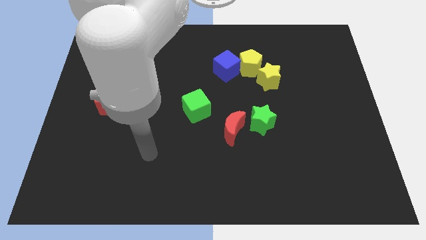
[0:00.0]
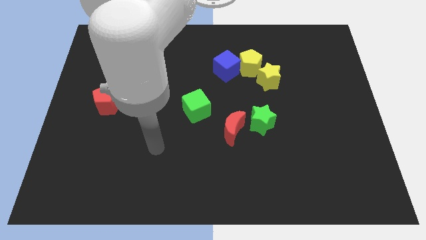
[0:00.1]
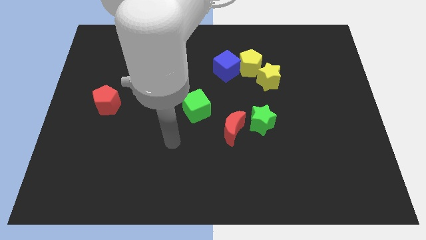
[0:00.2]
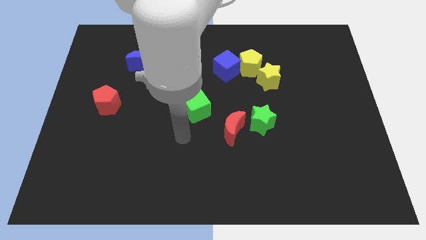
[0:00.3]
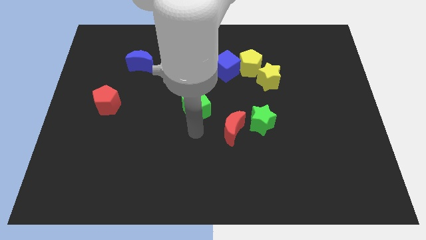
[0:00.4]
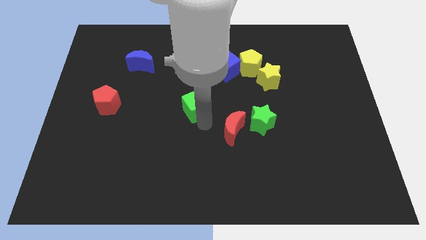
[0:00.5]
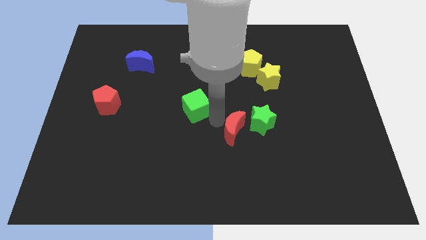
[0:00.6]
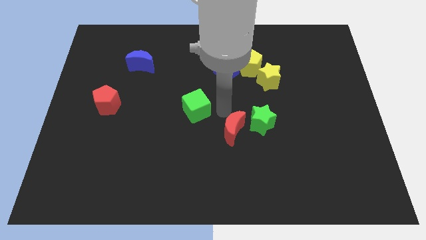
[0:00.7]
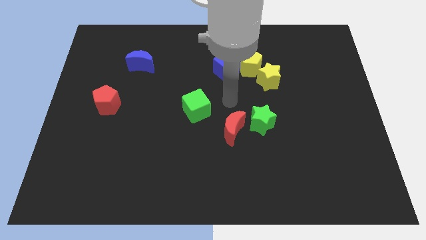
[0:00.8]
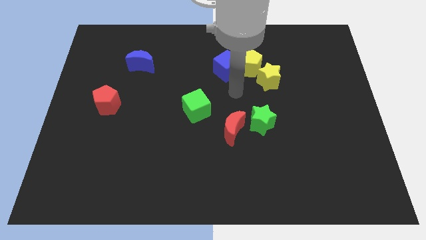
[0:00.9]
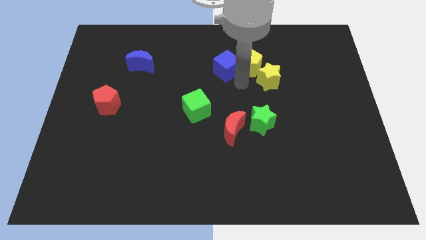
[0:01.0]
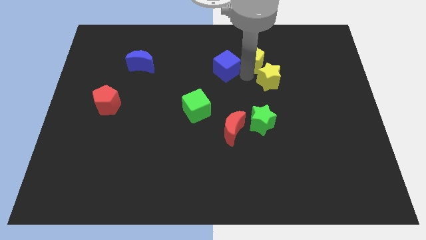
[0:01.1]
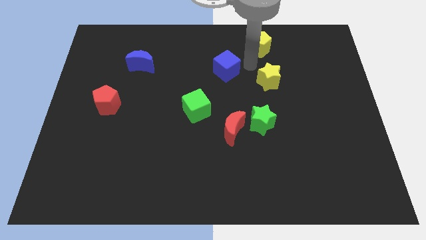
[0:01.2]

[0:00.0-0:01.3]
move the blue cube away from the yellow pentagon

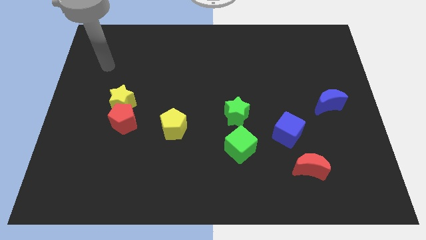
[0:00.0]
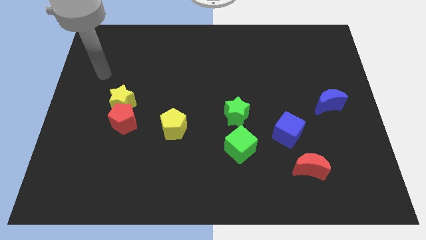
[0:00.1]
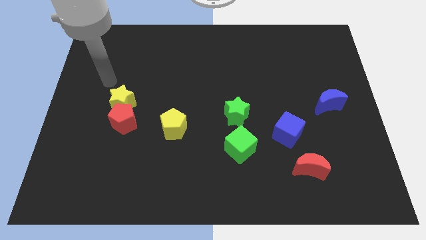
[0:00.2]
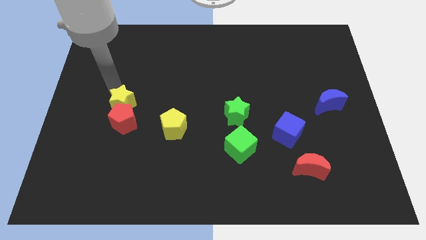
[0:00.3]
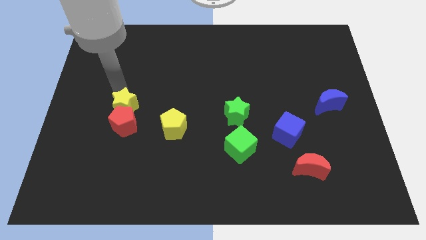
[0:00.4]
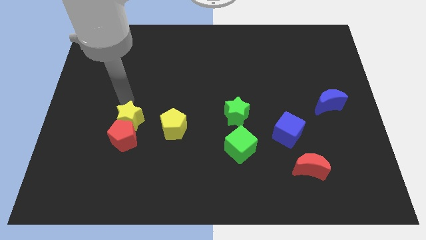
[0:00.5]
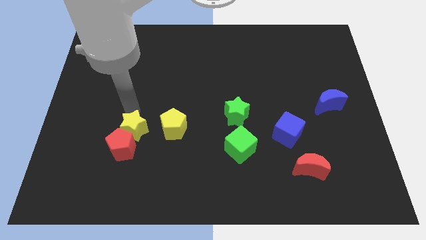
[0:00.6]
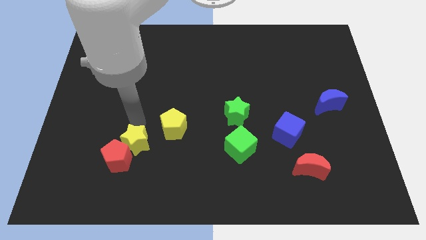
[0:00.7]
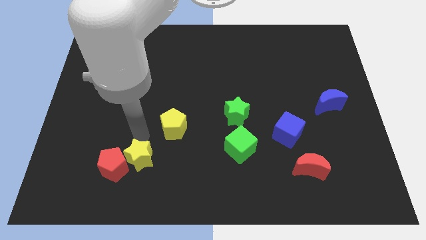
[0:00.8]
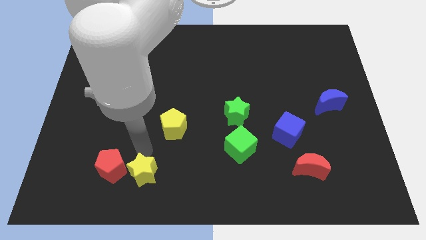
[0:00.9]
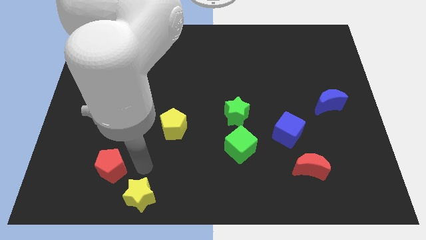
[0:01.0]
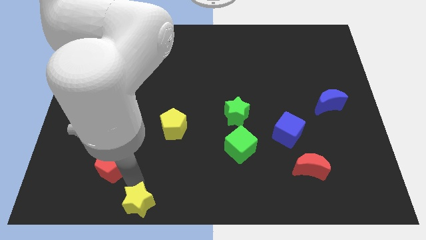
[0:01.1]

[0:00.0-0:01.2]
separate the red pentagon from the yellow star

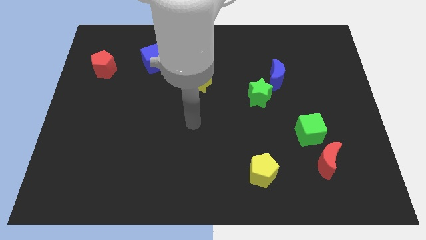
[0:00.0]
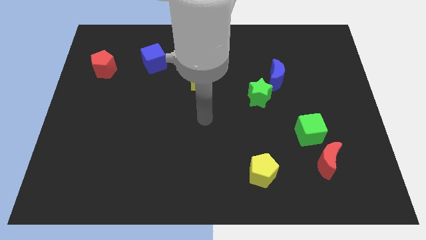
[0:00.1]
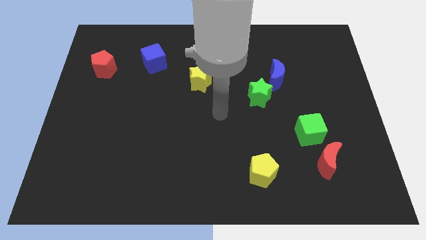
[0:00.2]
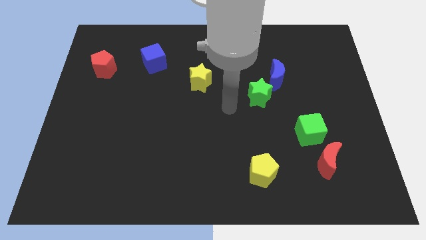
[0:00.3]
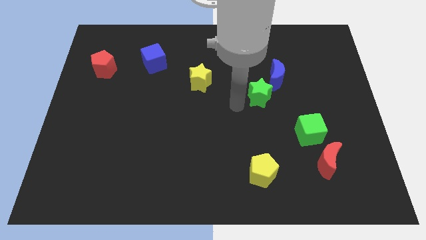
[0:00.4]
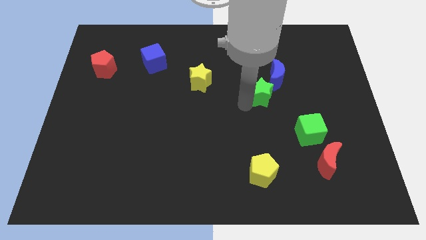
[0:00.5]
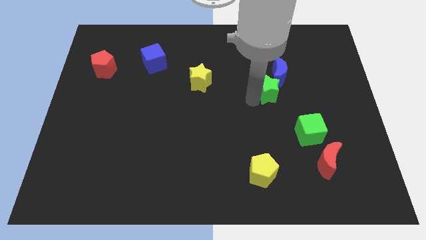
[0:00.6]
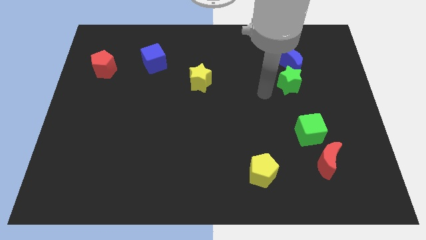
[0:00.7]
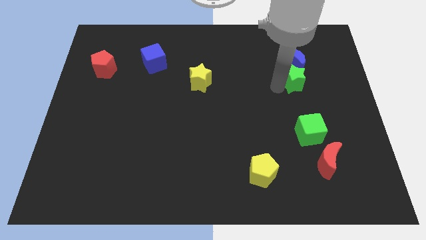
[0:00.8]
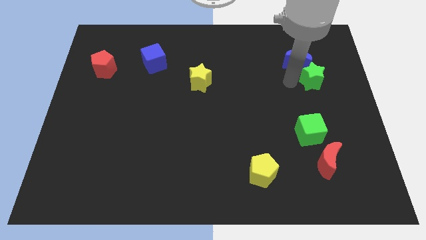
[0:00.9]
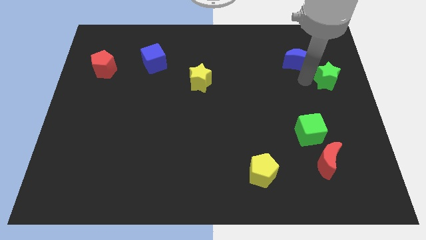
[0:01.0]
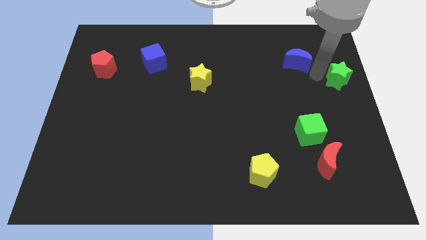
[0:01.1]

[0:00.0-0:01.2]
separate the blue moon from the green star

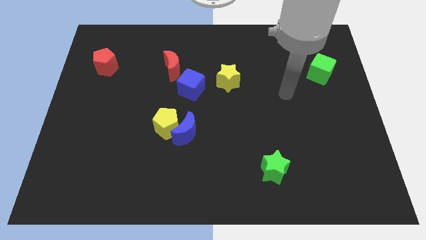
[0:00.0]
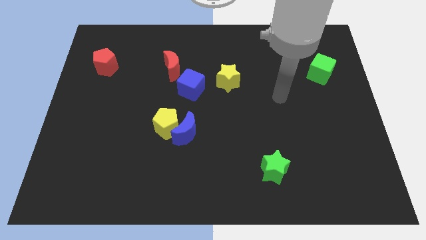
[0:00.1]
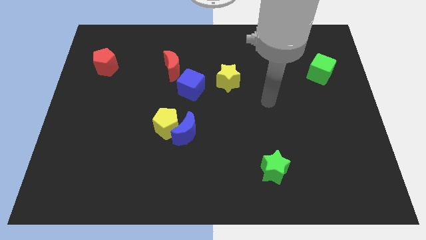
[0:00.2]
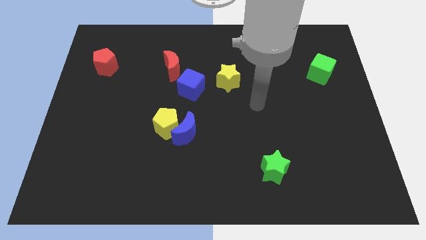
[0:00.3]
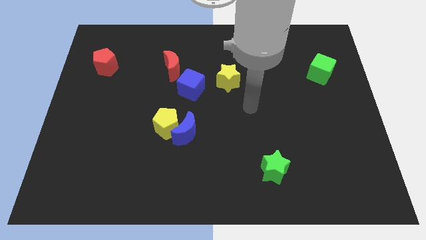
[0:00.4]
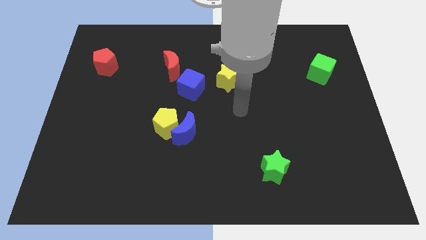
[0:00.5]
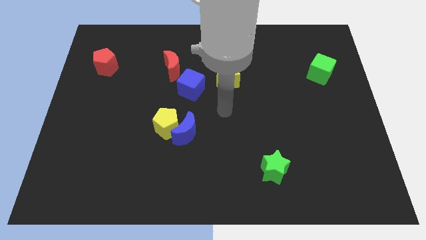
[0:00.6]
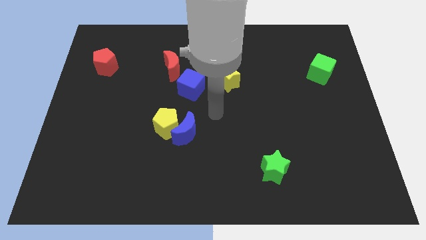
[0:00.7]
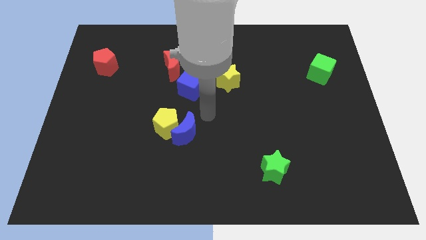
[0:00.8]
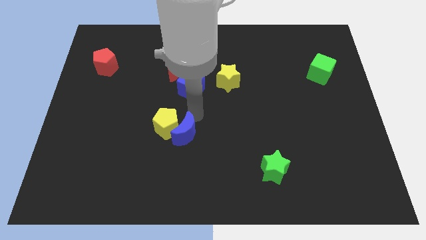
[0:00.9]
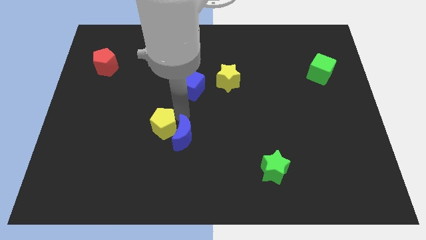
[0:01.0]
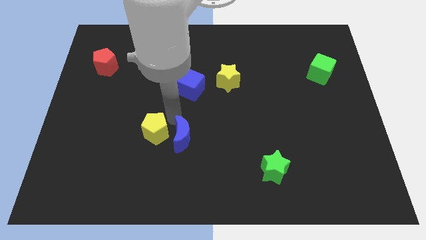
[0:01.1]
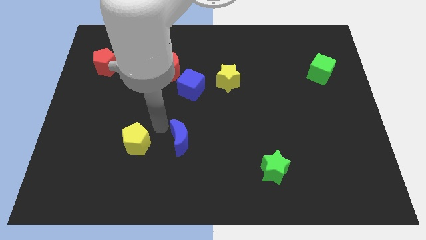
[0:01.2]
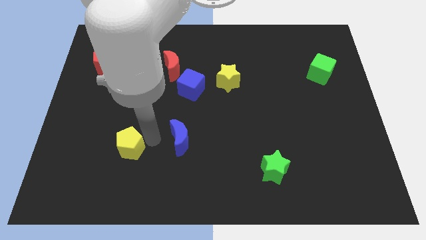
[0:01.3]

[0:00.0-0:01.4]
move the blue moon away from the yellow pentagon

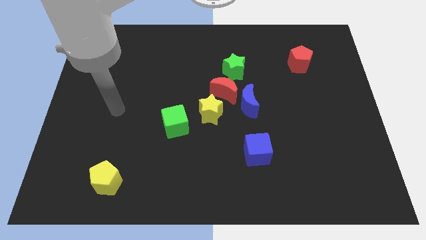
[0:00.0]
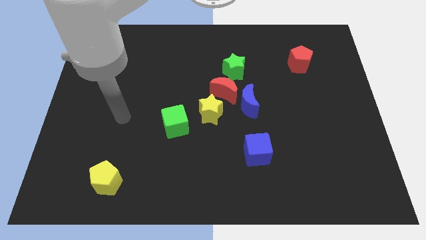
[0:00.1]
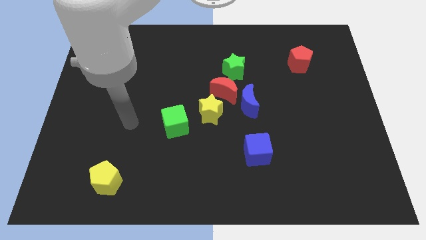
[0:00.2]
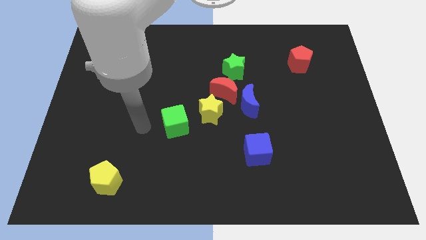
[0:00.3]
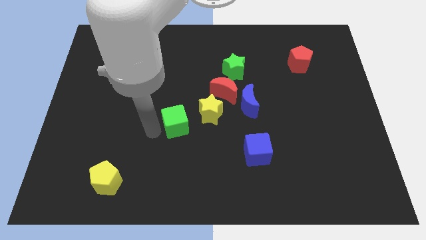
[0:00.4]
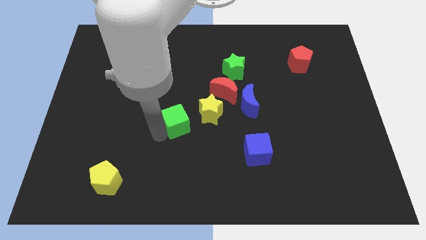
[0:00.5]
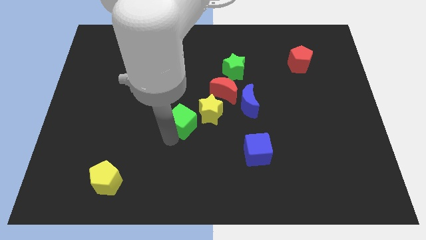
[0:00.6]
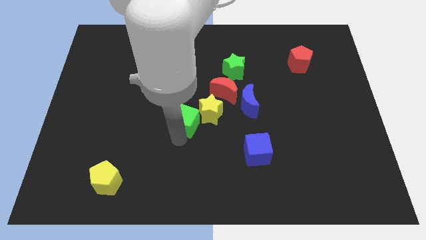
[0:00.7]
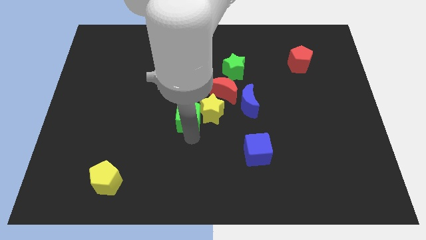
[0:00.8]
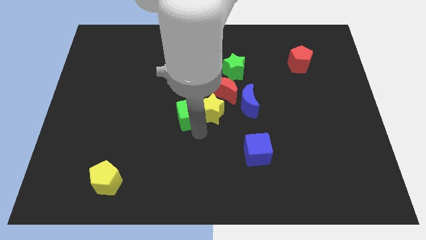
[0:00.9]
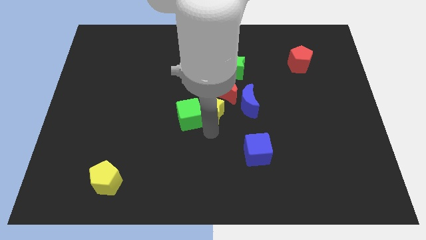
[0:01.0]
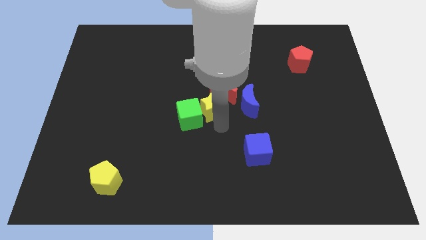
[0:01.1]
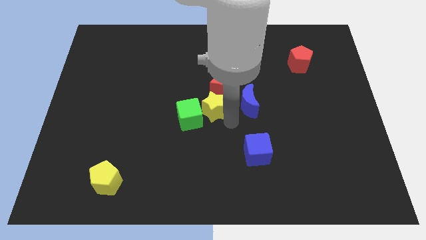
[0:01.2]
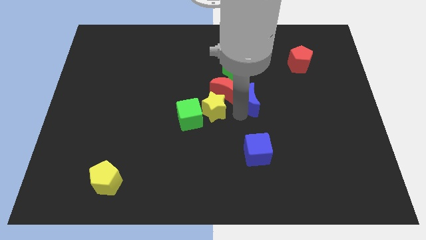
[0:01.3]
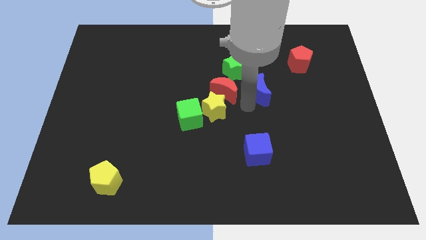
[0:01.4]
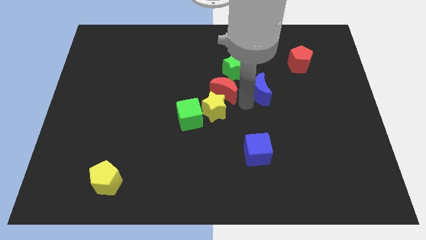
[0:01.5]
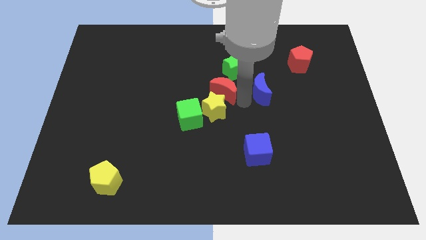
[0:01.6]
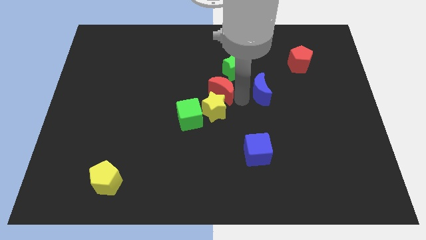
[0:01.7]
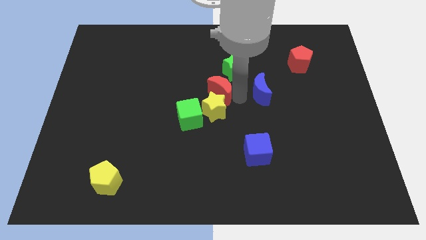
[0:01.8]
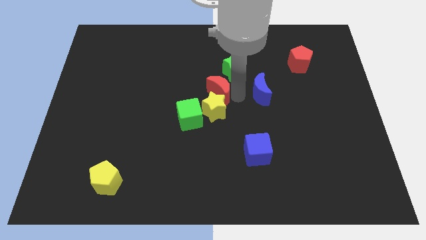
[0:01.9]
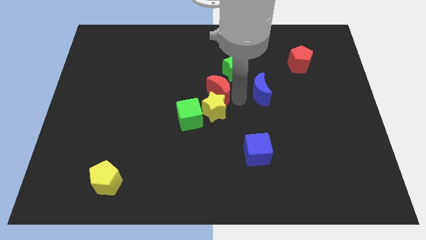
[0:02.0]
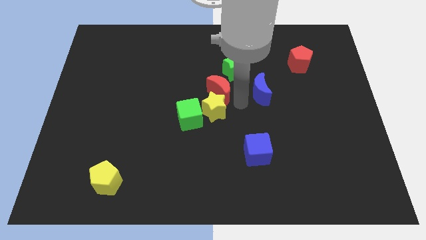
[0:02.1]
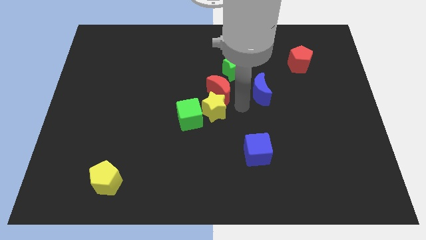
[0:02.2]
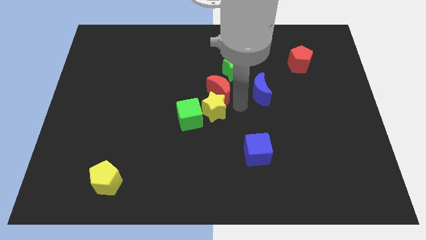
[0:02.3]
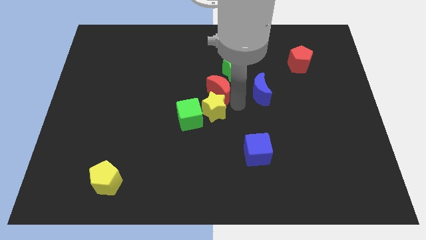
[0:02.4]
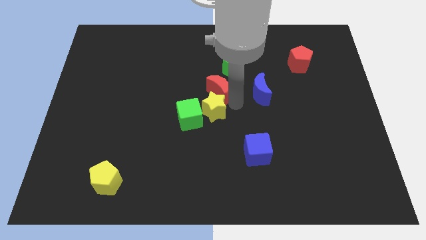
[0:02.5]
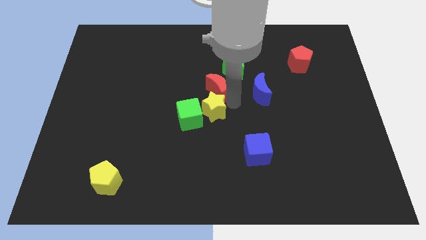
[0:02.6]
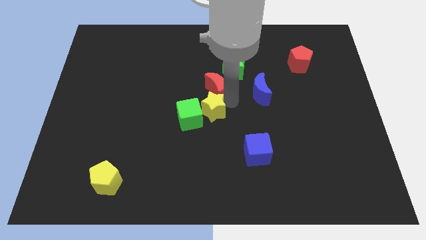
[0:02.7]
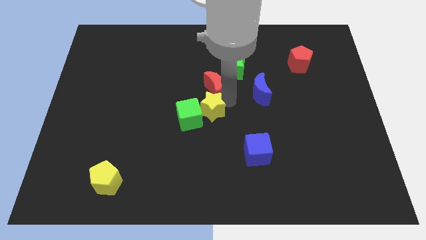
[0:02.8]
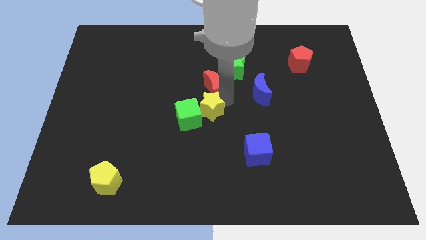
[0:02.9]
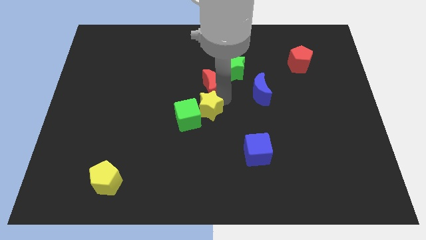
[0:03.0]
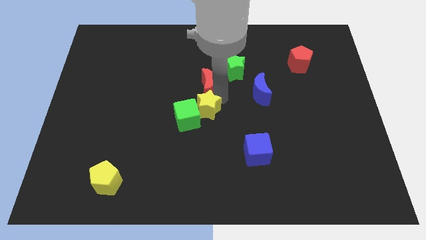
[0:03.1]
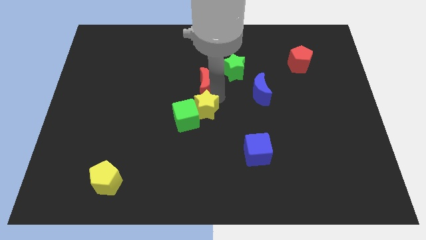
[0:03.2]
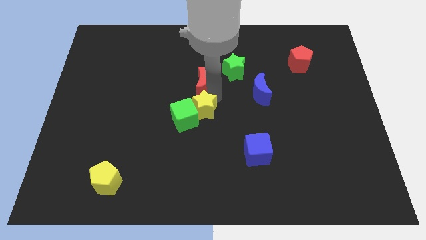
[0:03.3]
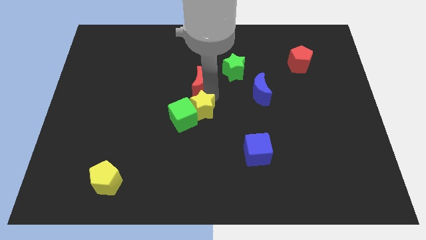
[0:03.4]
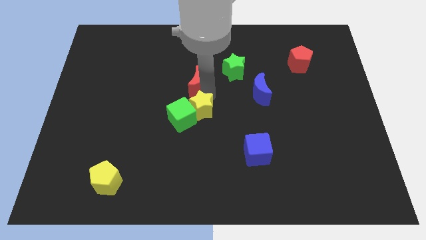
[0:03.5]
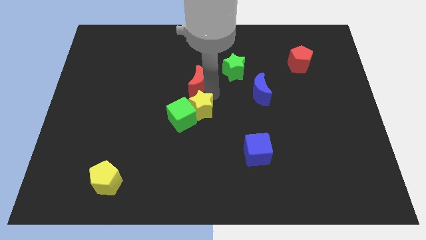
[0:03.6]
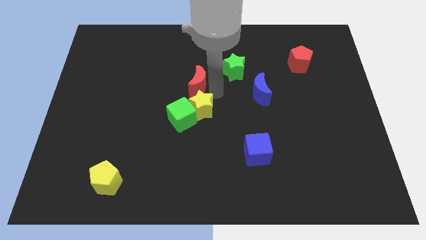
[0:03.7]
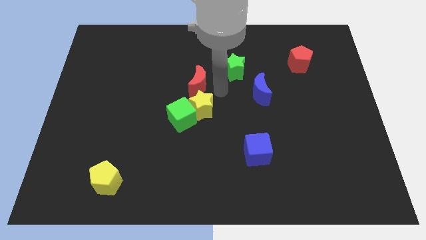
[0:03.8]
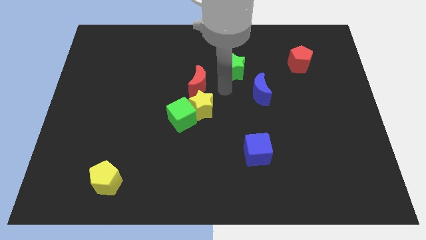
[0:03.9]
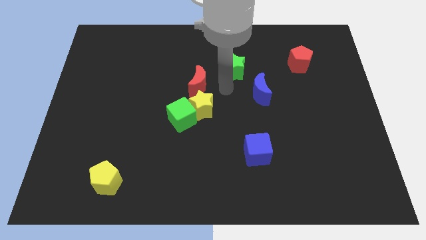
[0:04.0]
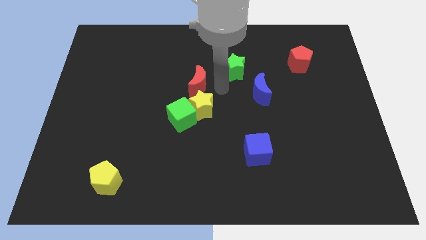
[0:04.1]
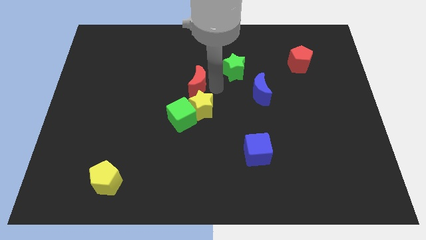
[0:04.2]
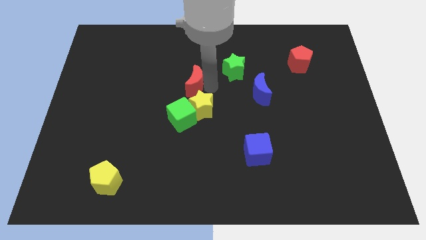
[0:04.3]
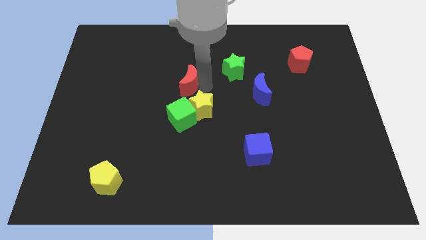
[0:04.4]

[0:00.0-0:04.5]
separate the red moon from the blue moon, yellow star, and green star
